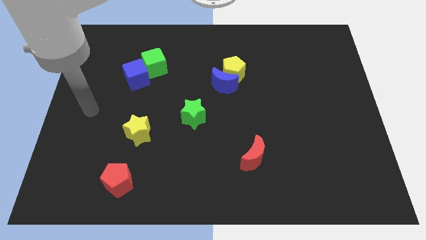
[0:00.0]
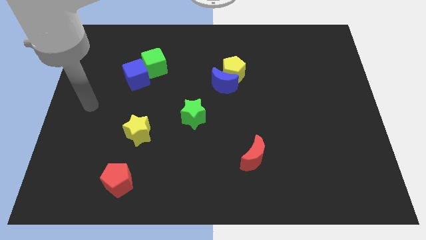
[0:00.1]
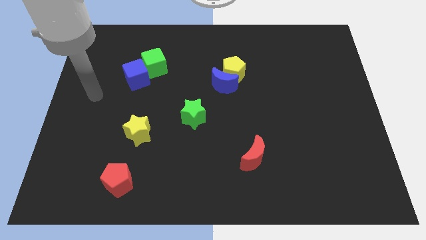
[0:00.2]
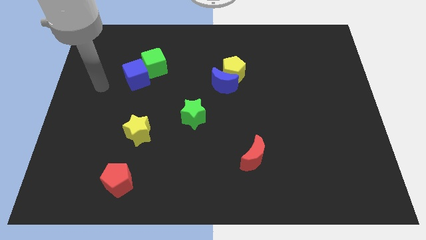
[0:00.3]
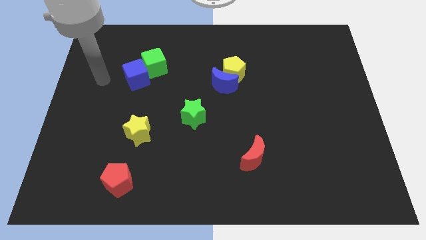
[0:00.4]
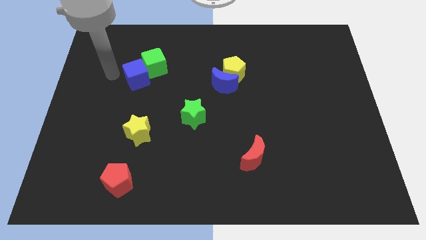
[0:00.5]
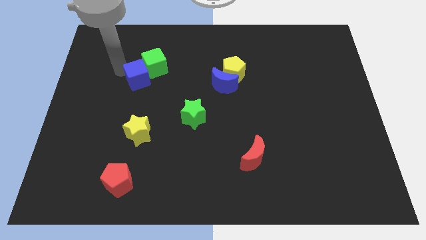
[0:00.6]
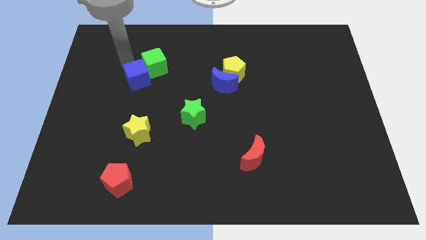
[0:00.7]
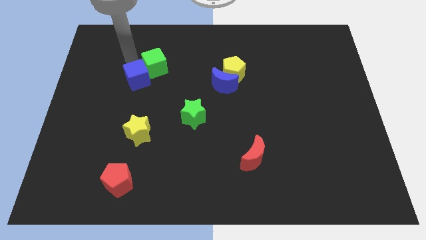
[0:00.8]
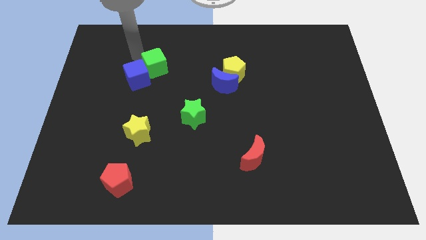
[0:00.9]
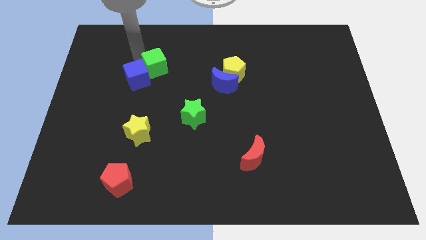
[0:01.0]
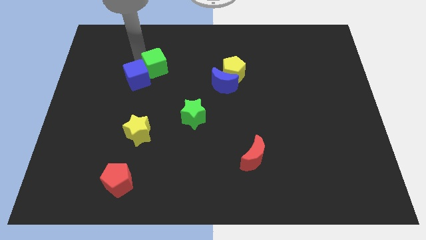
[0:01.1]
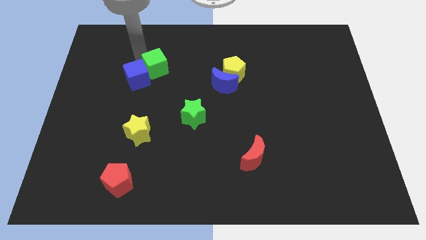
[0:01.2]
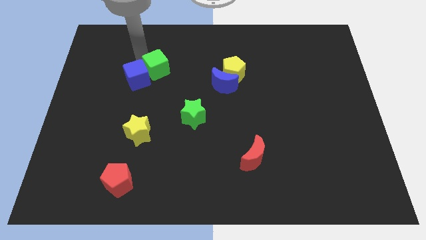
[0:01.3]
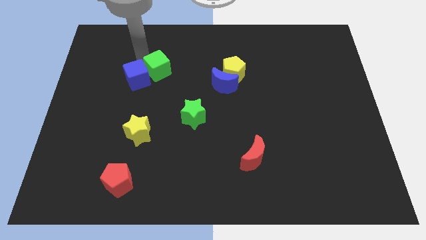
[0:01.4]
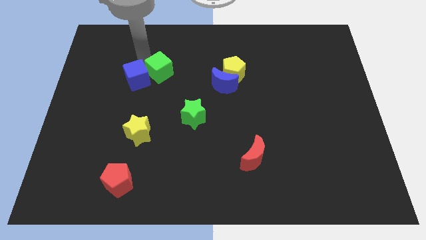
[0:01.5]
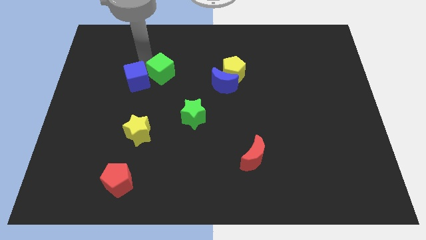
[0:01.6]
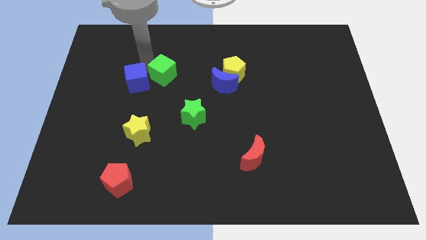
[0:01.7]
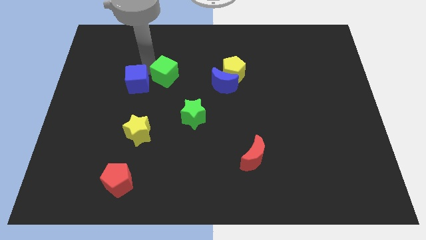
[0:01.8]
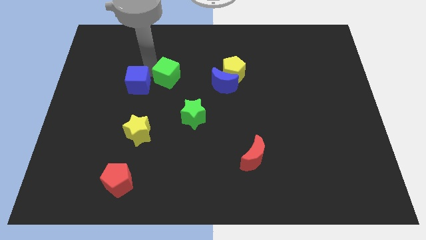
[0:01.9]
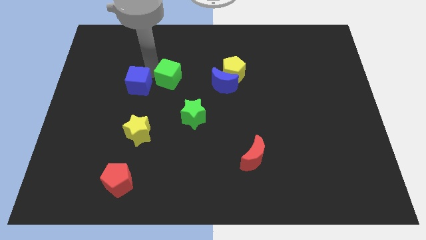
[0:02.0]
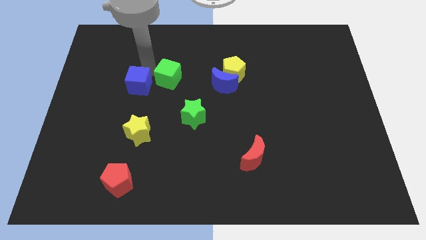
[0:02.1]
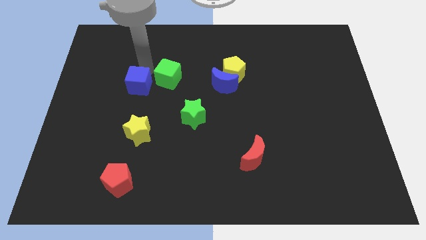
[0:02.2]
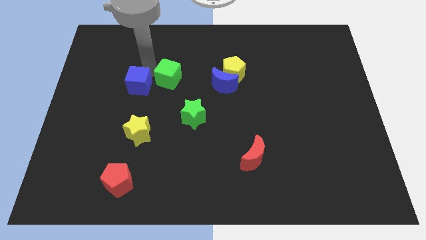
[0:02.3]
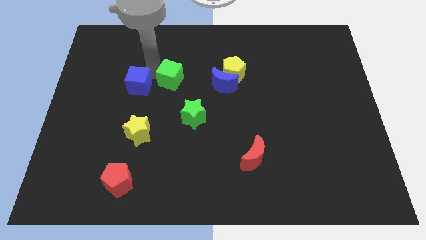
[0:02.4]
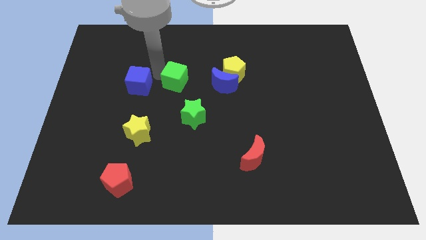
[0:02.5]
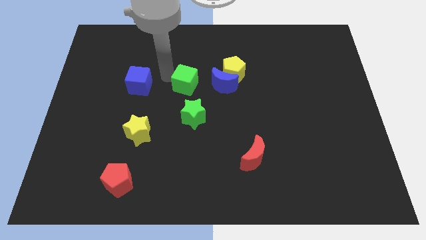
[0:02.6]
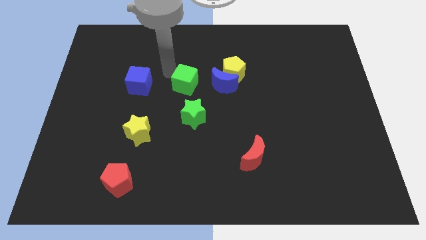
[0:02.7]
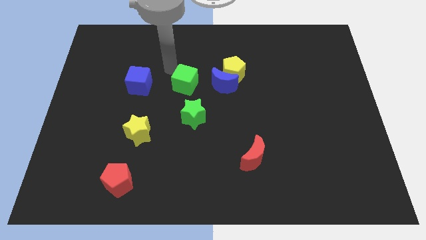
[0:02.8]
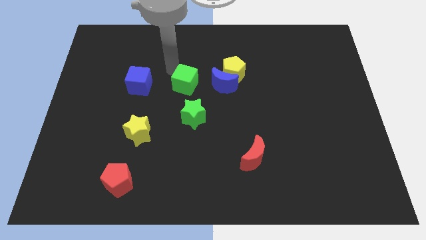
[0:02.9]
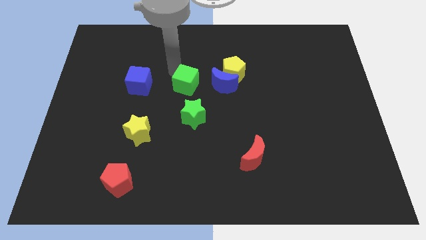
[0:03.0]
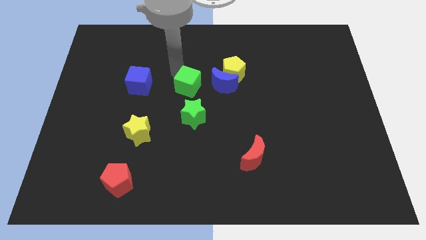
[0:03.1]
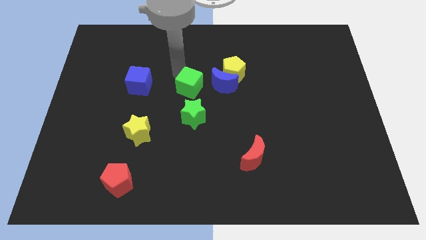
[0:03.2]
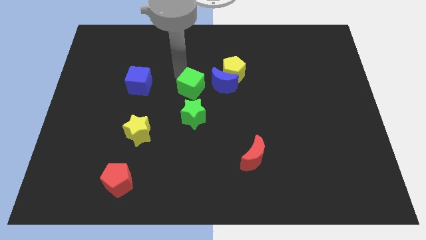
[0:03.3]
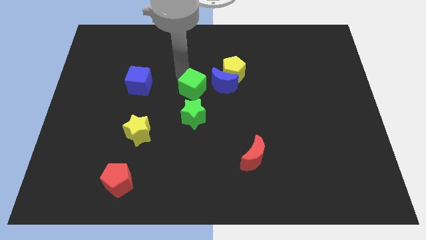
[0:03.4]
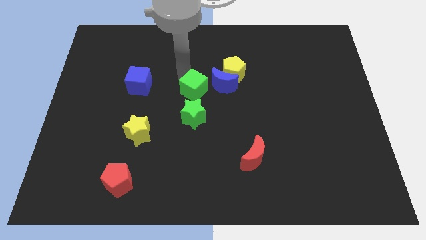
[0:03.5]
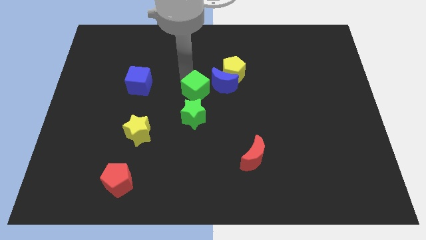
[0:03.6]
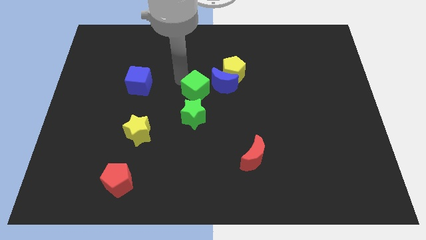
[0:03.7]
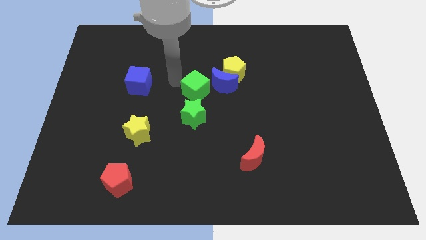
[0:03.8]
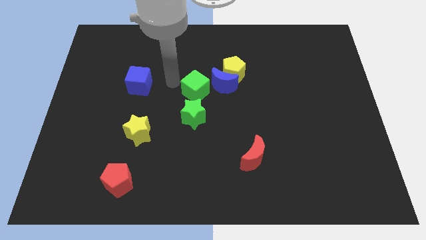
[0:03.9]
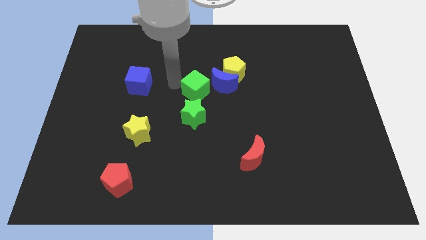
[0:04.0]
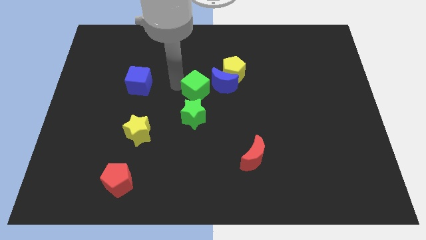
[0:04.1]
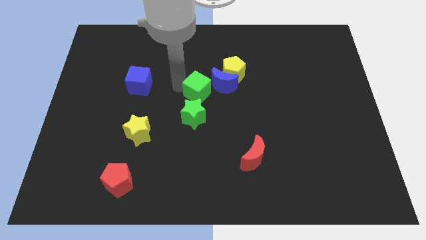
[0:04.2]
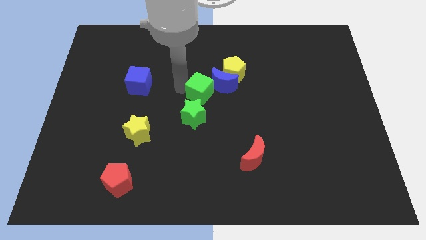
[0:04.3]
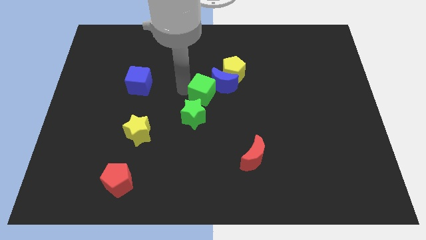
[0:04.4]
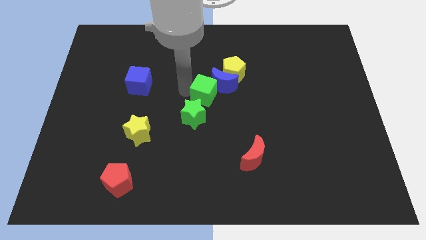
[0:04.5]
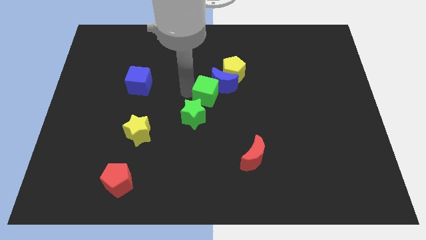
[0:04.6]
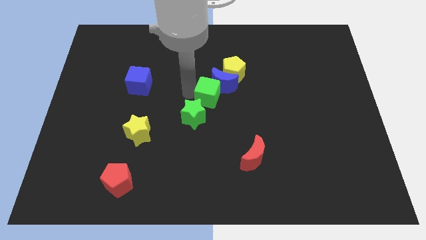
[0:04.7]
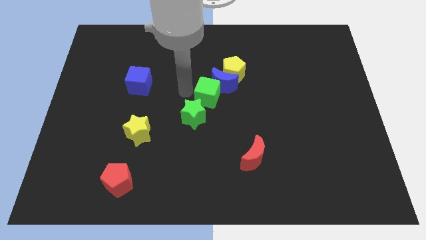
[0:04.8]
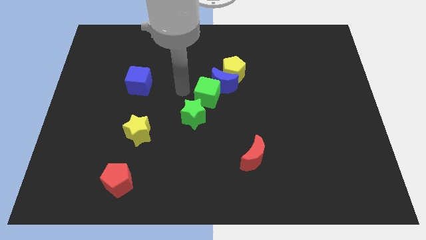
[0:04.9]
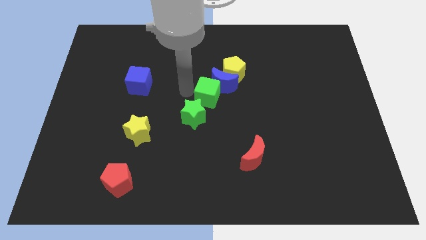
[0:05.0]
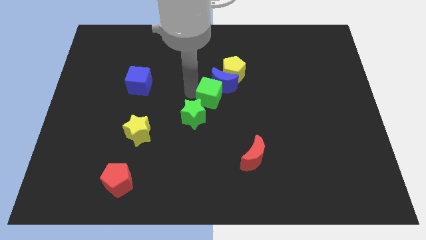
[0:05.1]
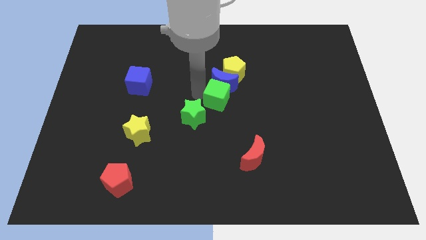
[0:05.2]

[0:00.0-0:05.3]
put the green cube below the yellow pentagon

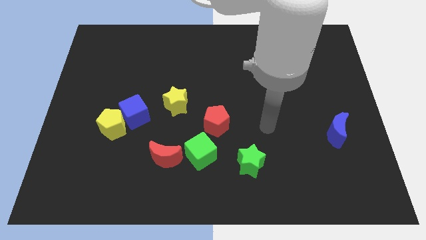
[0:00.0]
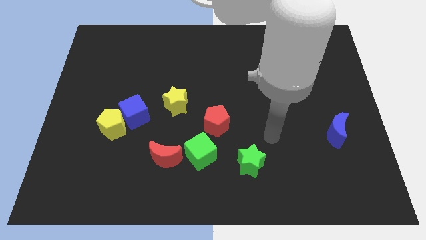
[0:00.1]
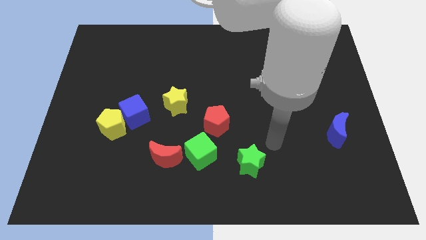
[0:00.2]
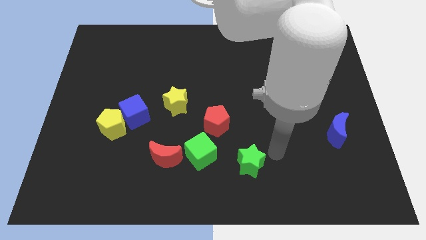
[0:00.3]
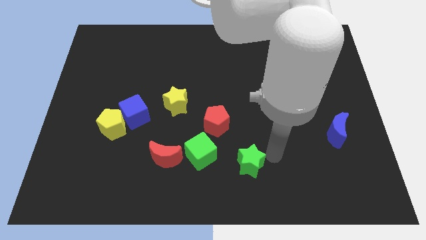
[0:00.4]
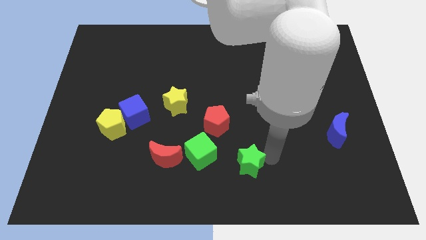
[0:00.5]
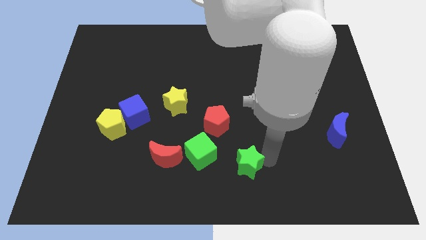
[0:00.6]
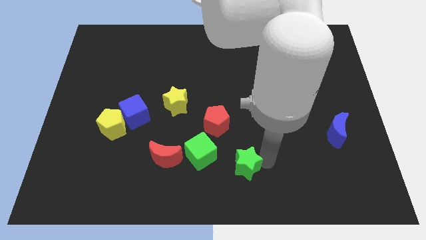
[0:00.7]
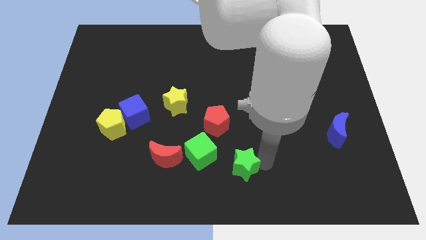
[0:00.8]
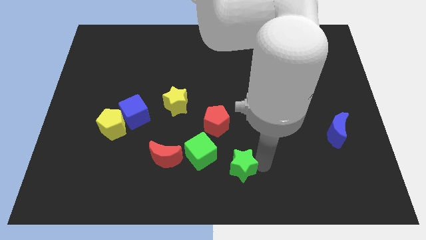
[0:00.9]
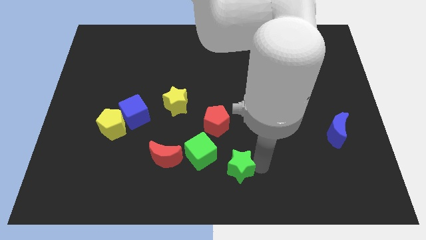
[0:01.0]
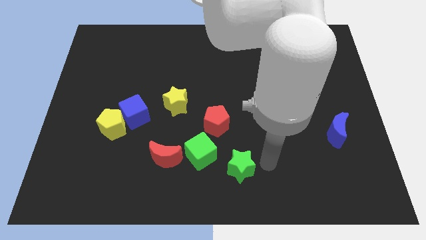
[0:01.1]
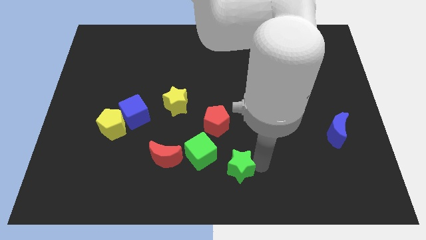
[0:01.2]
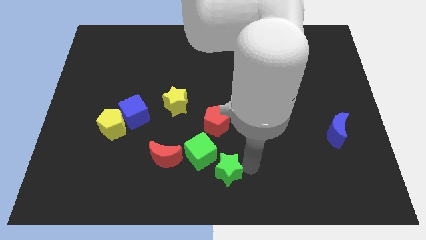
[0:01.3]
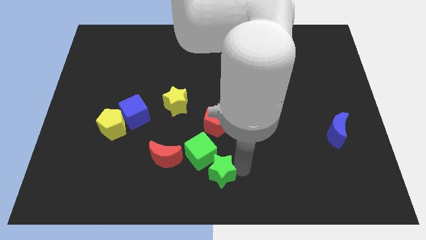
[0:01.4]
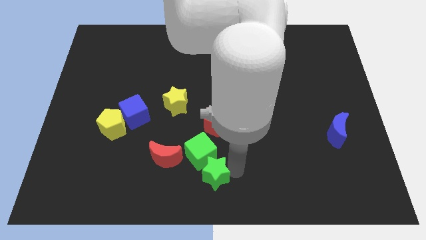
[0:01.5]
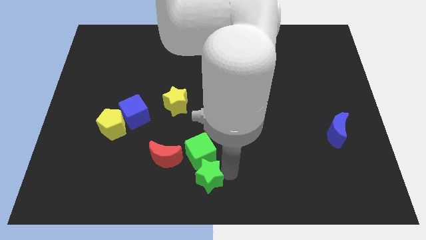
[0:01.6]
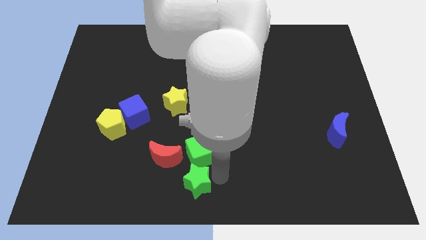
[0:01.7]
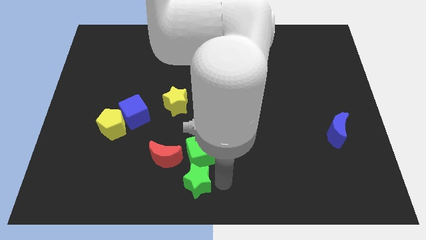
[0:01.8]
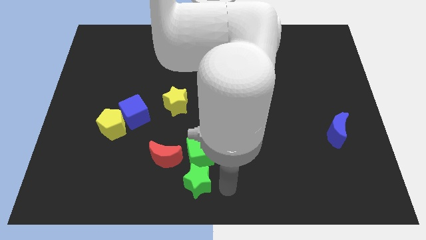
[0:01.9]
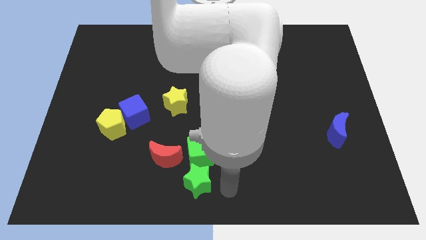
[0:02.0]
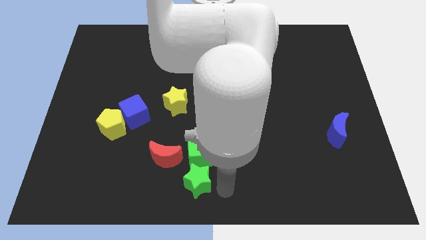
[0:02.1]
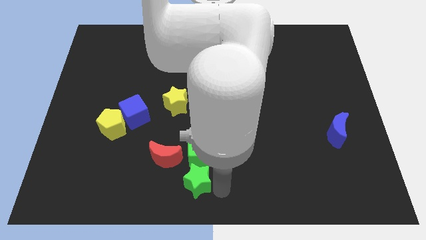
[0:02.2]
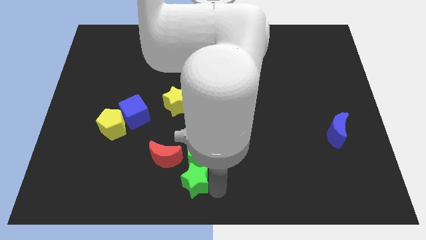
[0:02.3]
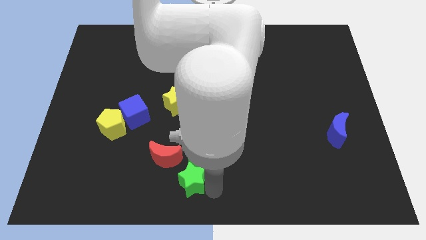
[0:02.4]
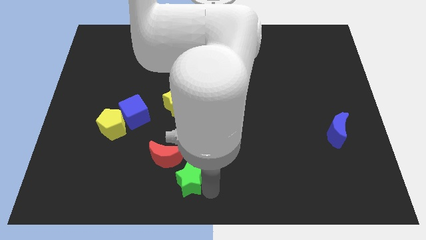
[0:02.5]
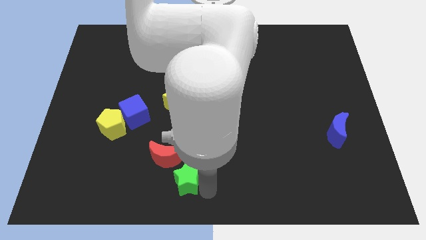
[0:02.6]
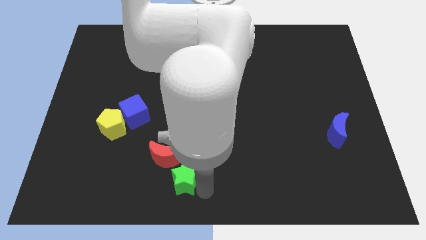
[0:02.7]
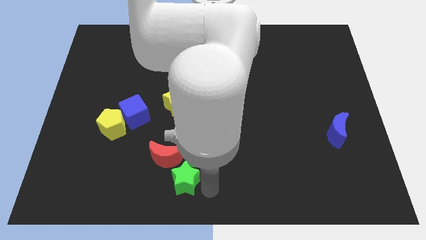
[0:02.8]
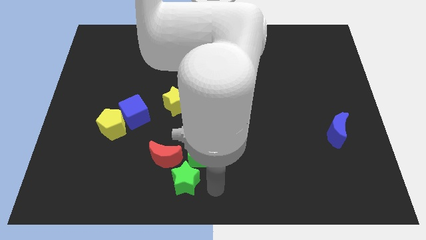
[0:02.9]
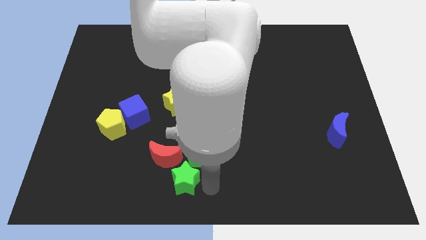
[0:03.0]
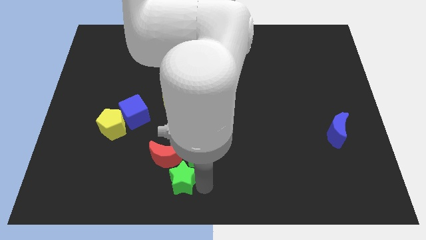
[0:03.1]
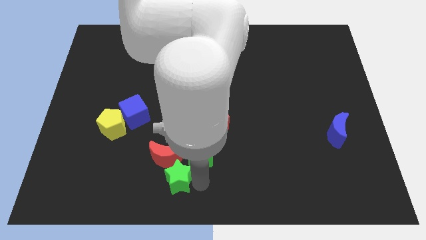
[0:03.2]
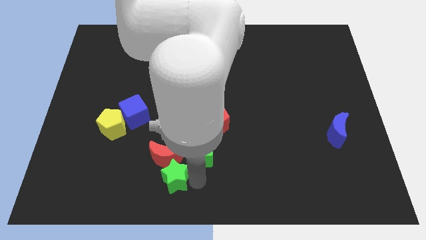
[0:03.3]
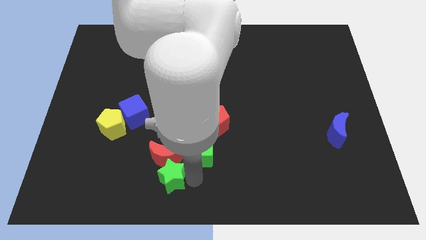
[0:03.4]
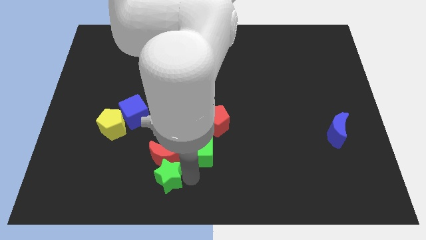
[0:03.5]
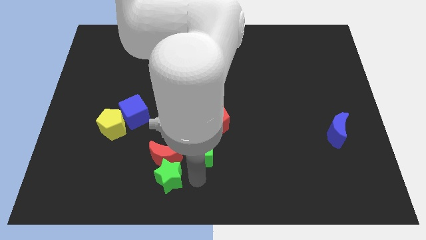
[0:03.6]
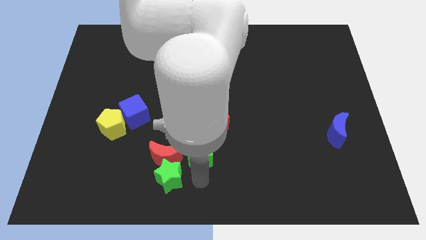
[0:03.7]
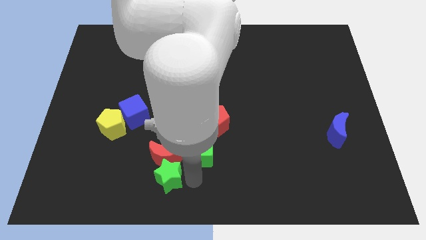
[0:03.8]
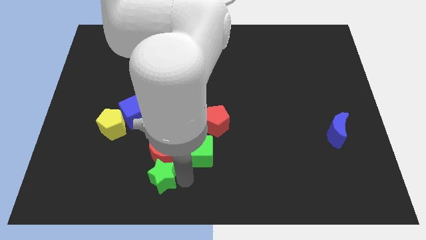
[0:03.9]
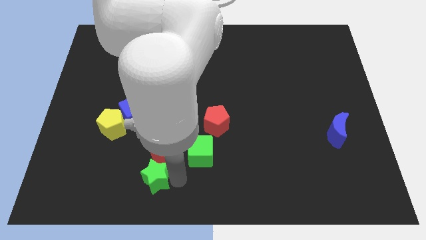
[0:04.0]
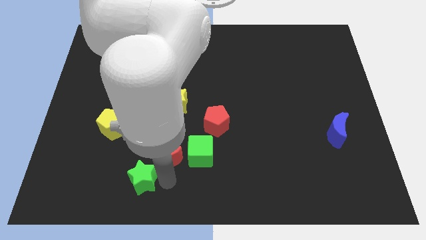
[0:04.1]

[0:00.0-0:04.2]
push the green star to the left side of the red moon
